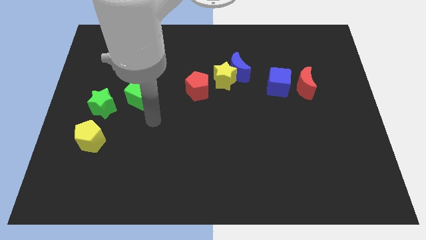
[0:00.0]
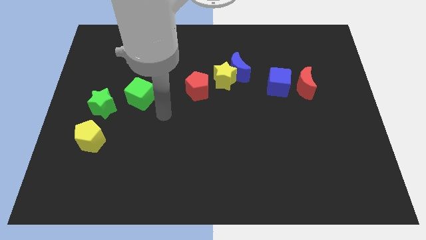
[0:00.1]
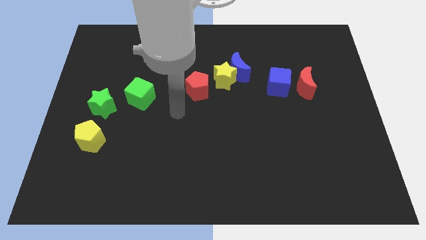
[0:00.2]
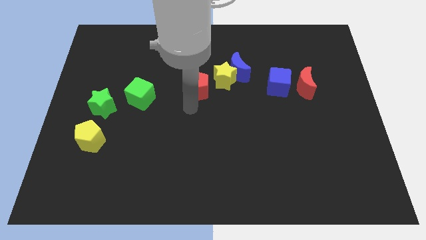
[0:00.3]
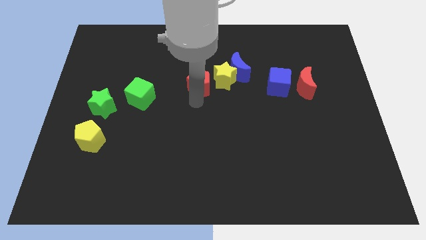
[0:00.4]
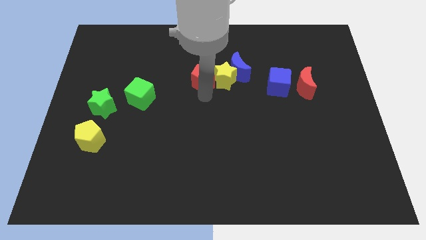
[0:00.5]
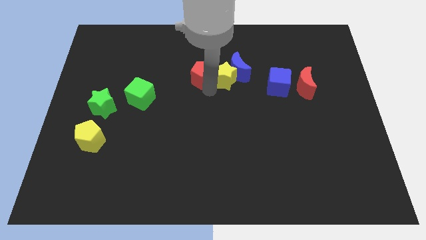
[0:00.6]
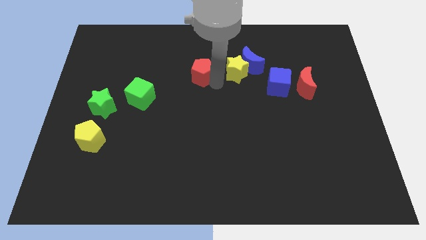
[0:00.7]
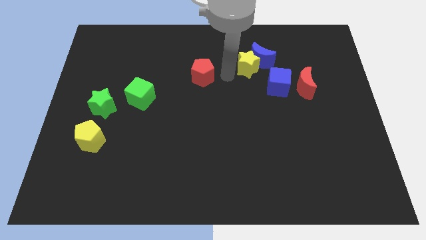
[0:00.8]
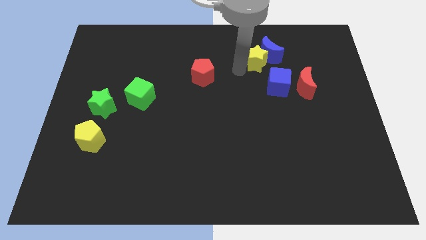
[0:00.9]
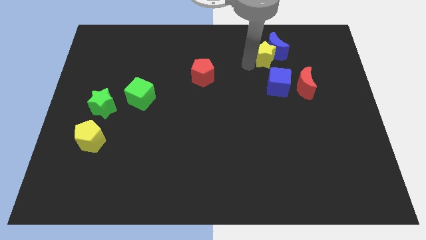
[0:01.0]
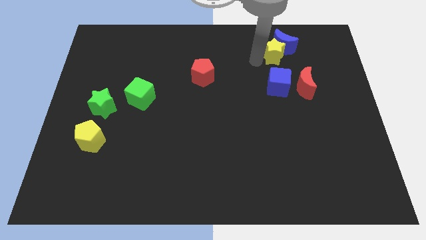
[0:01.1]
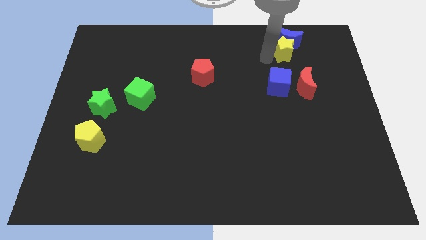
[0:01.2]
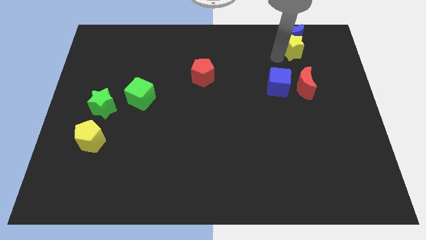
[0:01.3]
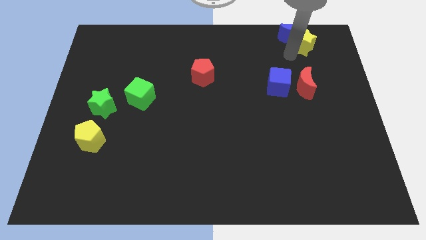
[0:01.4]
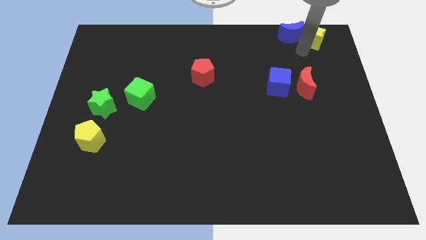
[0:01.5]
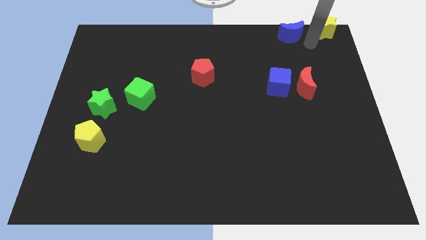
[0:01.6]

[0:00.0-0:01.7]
separate the blue moon from the yellow star

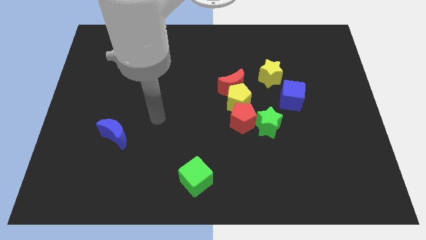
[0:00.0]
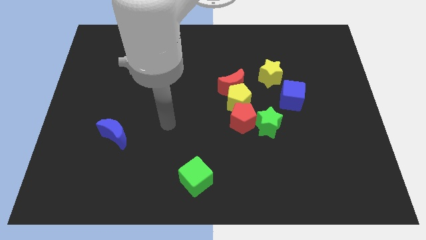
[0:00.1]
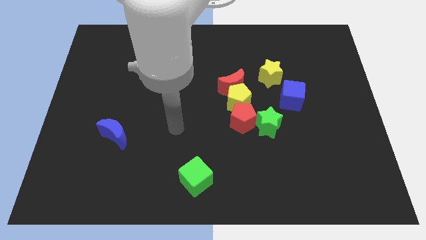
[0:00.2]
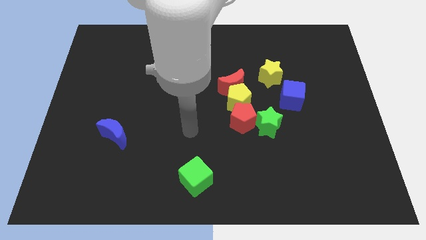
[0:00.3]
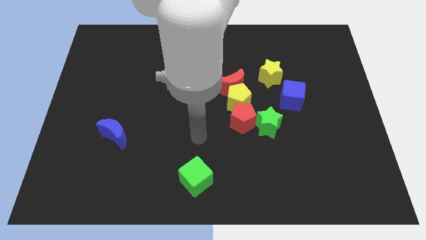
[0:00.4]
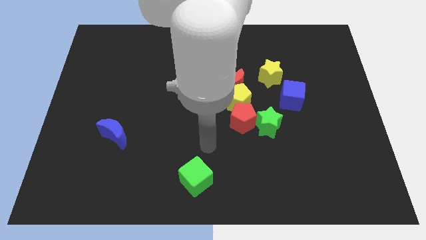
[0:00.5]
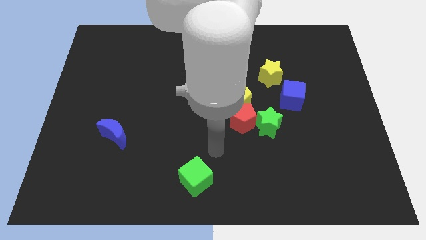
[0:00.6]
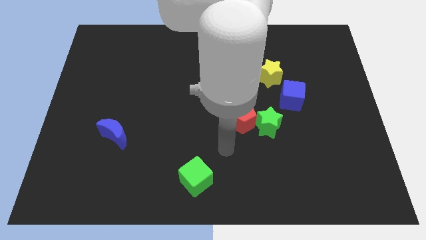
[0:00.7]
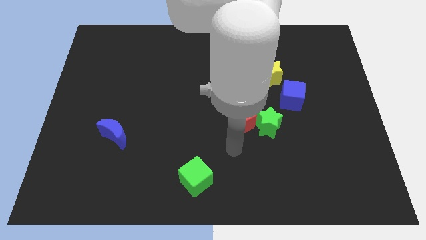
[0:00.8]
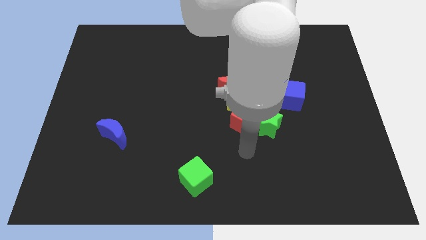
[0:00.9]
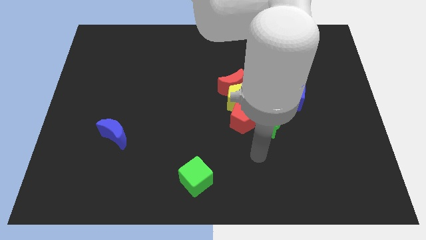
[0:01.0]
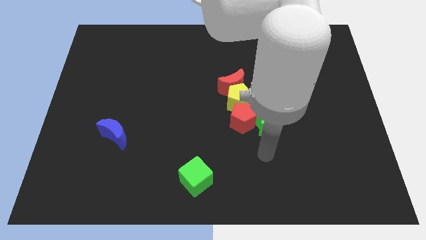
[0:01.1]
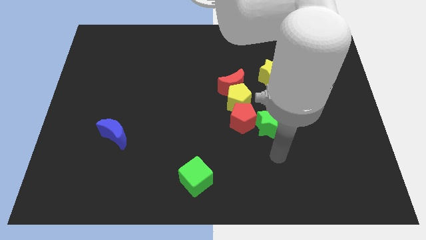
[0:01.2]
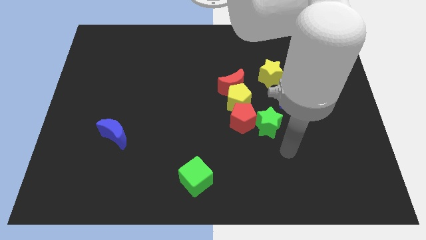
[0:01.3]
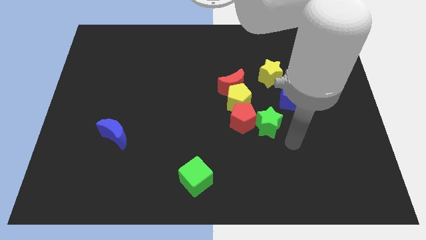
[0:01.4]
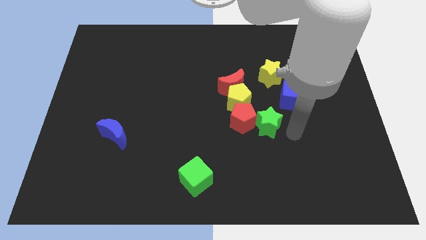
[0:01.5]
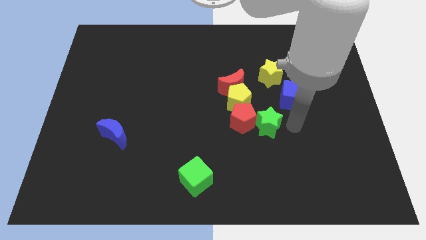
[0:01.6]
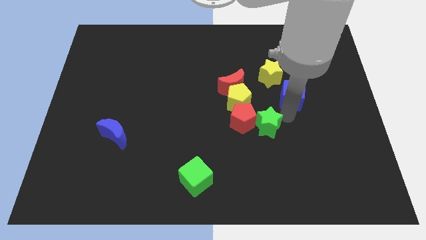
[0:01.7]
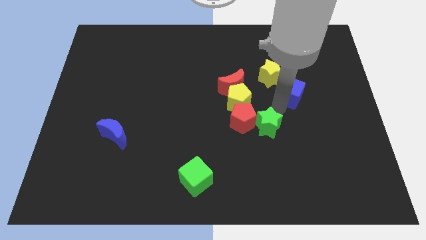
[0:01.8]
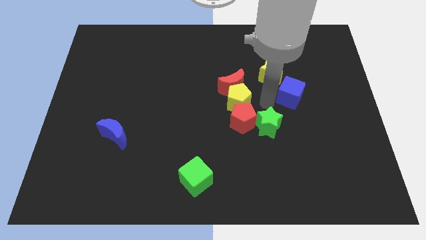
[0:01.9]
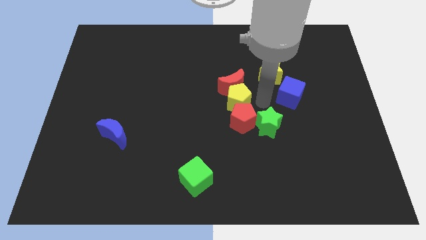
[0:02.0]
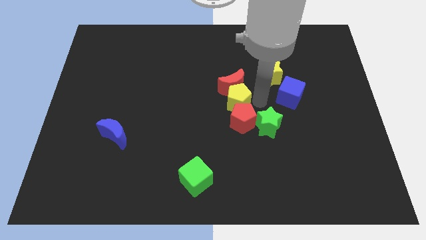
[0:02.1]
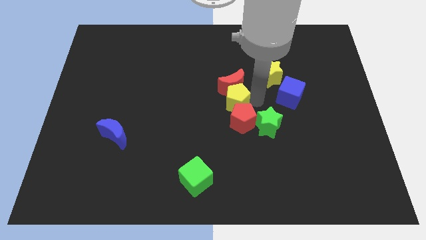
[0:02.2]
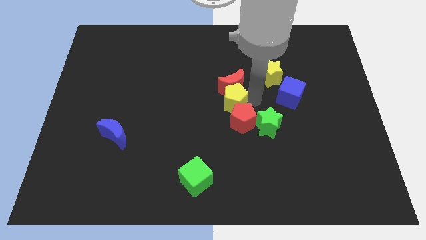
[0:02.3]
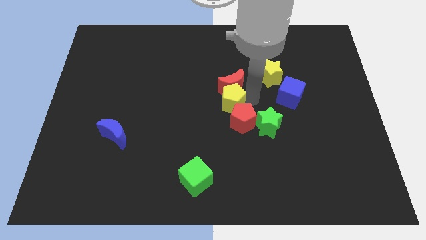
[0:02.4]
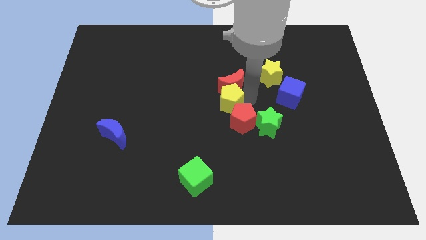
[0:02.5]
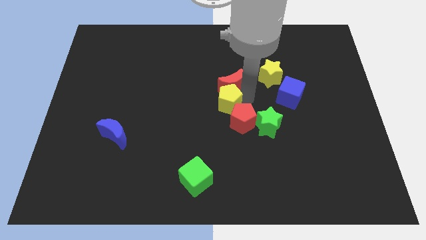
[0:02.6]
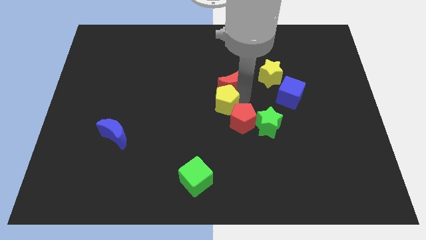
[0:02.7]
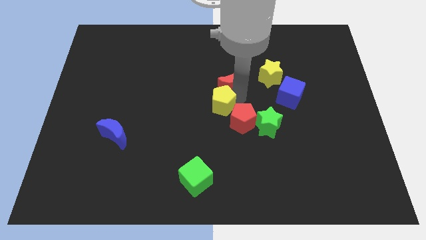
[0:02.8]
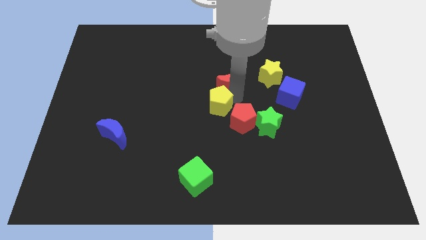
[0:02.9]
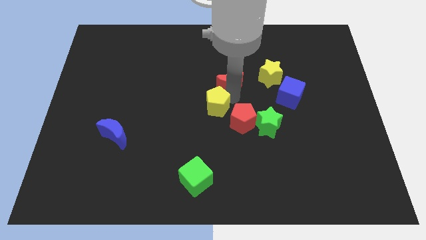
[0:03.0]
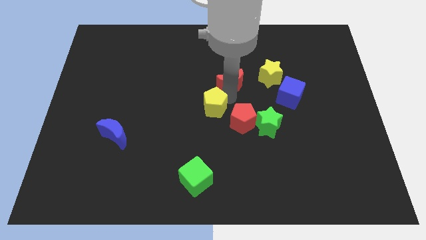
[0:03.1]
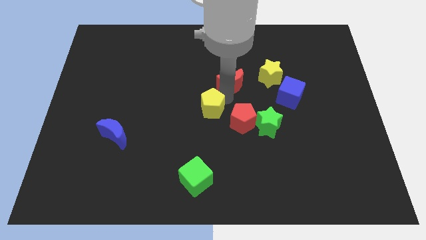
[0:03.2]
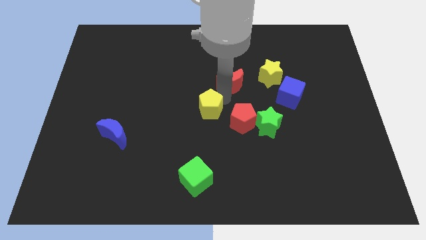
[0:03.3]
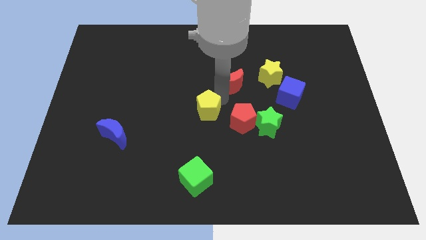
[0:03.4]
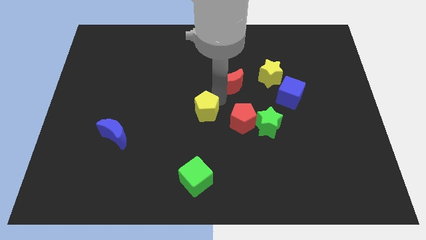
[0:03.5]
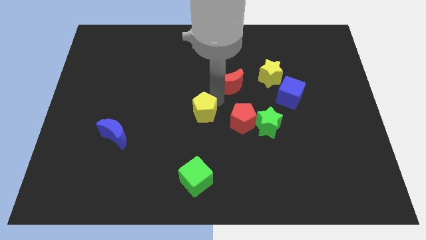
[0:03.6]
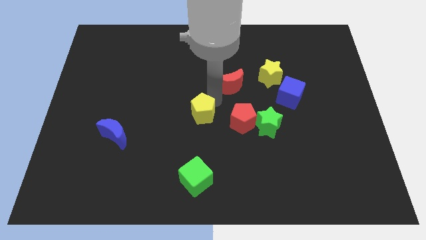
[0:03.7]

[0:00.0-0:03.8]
pull the yellow pentagon apart from the group

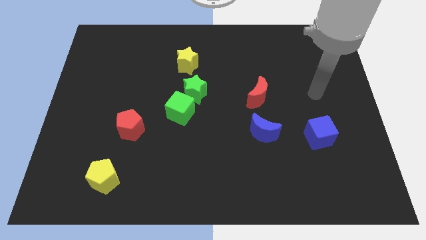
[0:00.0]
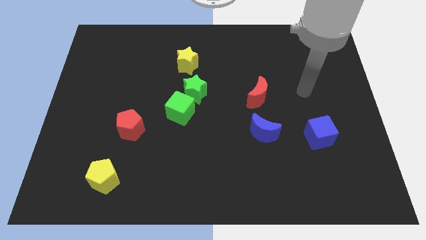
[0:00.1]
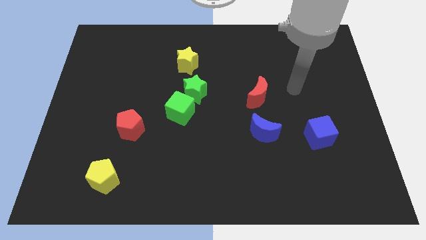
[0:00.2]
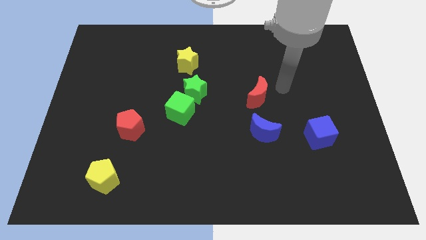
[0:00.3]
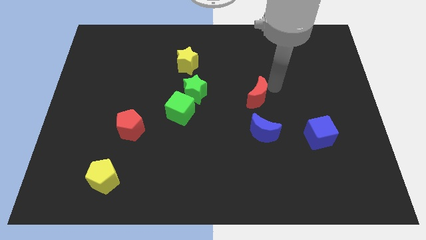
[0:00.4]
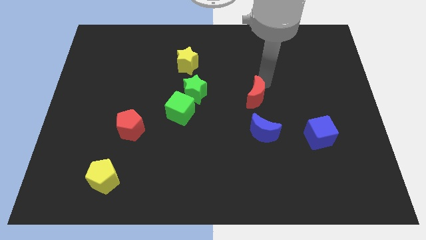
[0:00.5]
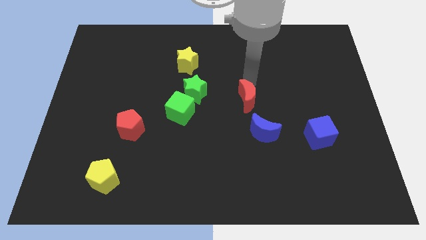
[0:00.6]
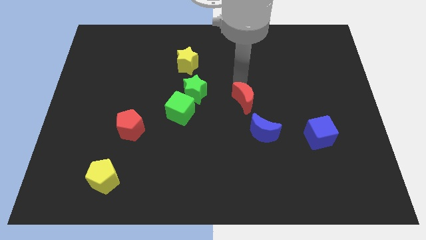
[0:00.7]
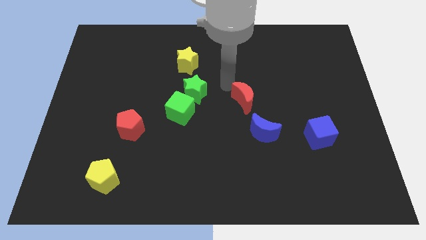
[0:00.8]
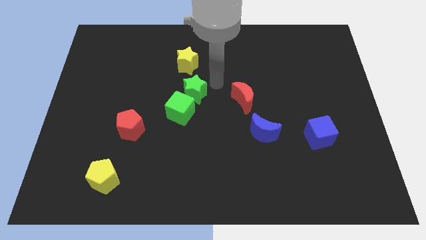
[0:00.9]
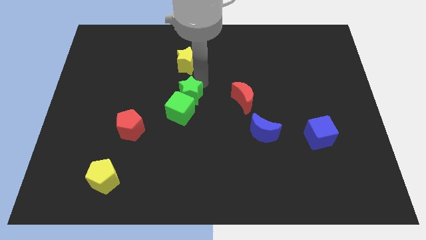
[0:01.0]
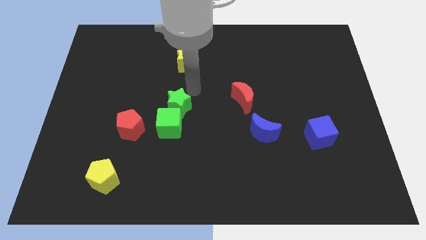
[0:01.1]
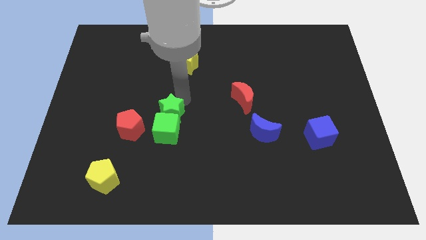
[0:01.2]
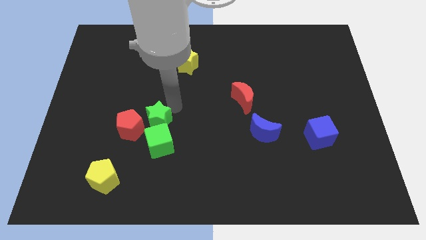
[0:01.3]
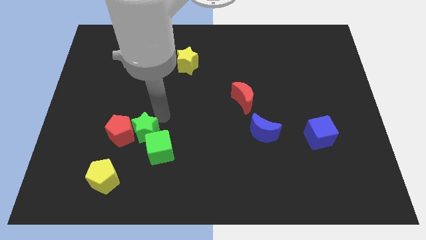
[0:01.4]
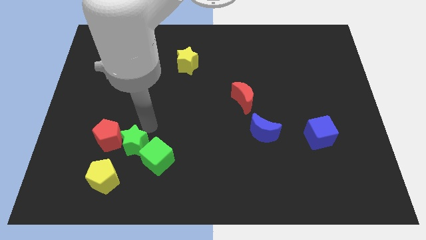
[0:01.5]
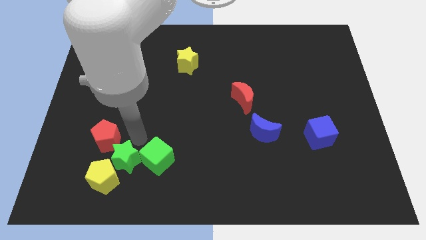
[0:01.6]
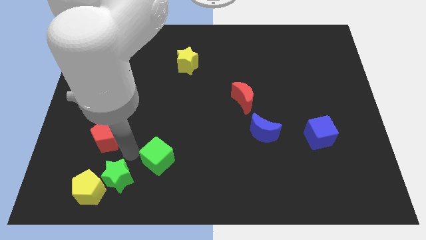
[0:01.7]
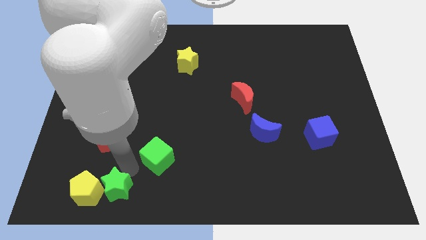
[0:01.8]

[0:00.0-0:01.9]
move the green cube away from the green star

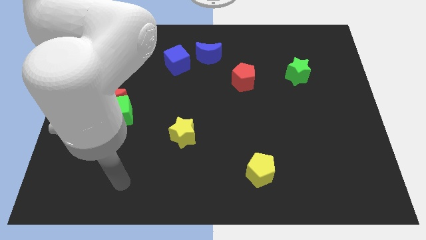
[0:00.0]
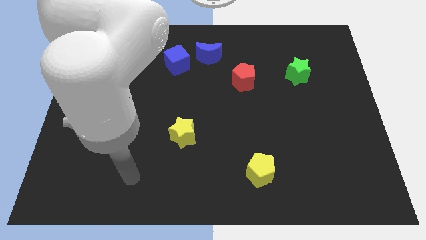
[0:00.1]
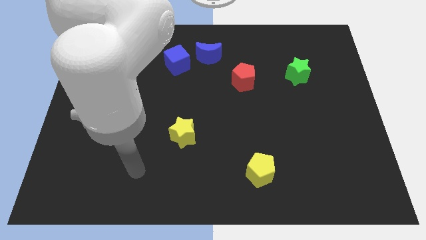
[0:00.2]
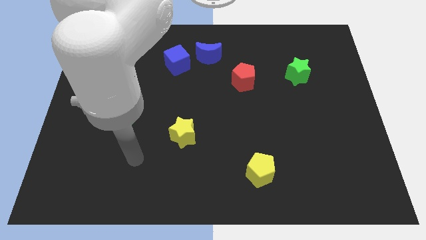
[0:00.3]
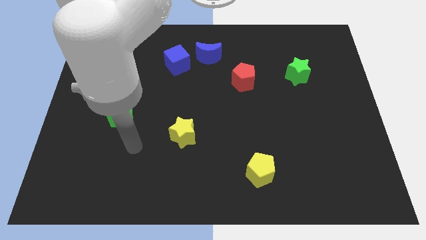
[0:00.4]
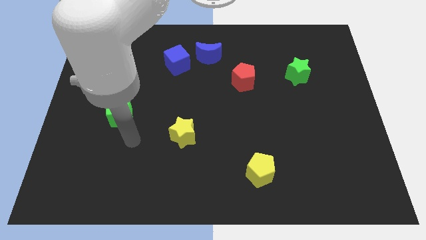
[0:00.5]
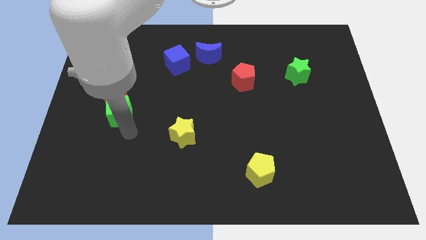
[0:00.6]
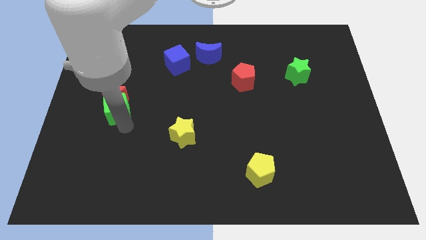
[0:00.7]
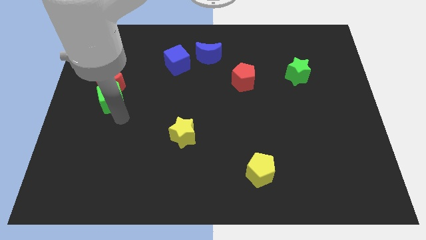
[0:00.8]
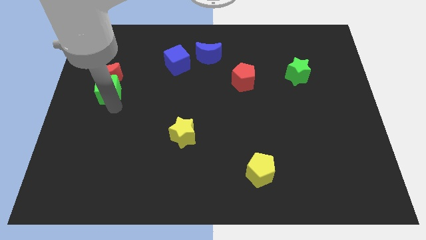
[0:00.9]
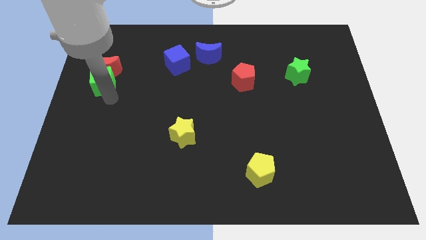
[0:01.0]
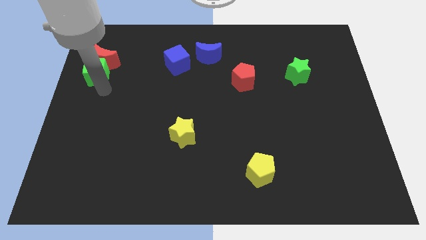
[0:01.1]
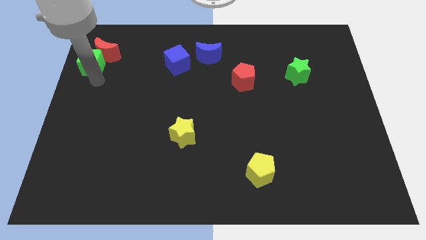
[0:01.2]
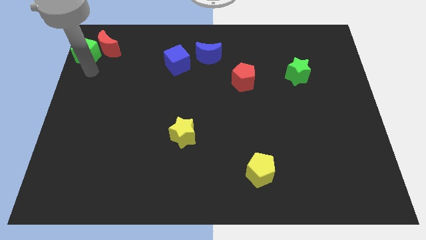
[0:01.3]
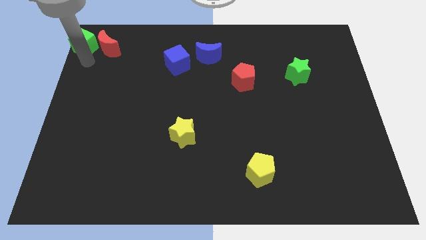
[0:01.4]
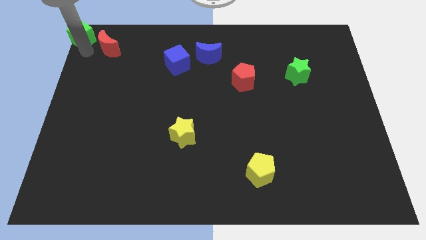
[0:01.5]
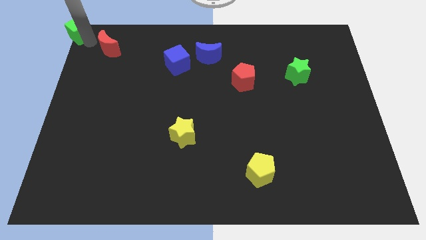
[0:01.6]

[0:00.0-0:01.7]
separate the red moon from the green cube

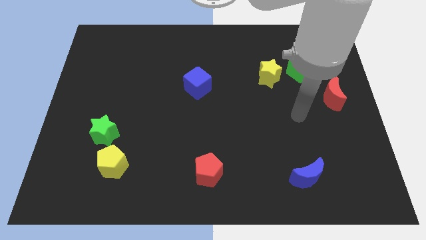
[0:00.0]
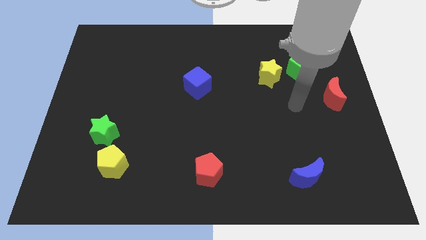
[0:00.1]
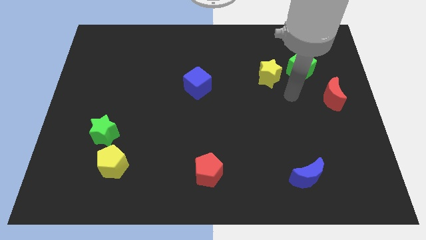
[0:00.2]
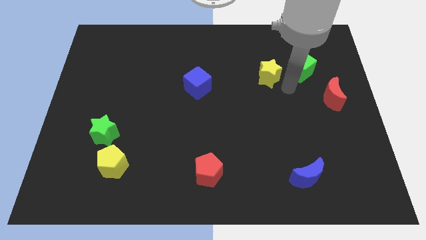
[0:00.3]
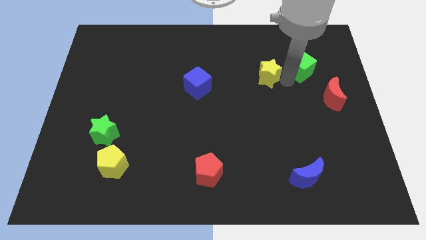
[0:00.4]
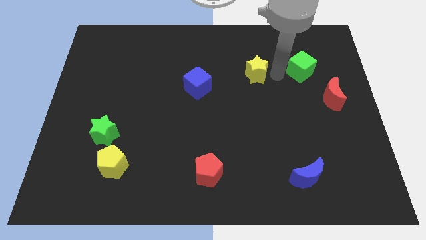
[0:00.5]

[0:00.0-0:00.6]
pull the green cube apart from the yellow star
